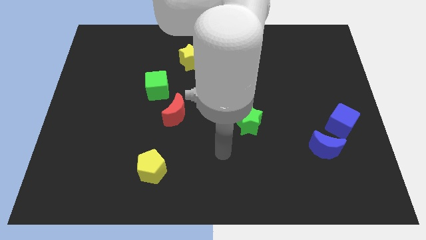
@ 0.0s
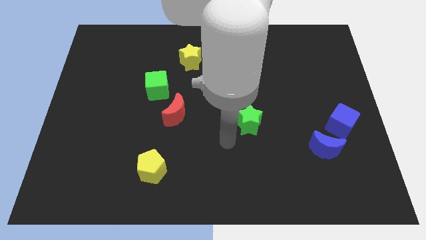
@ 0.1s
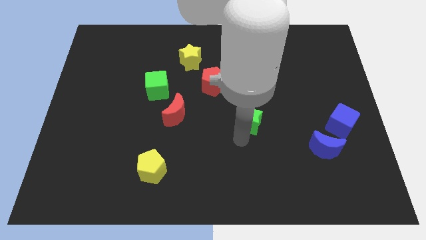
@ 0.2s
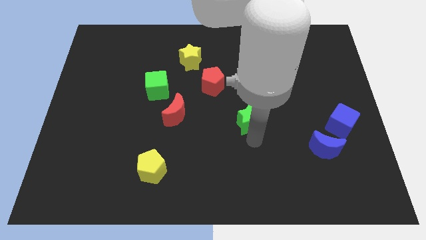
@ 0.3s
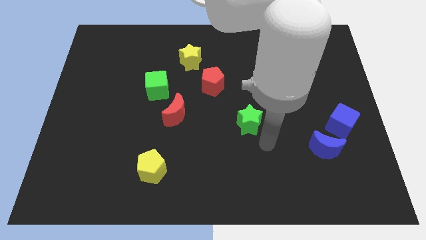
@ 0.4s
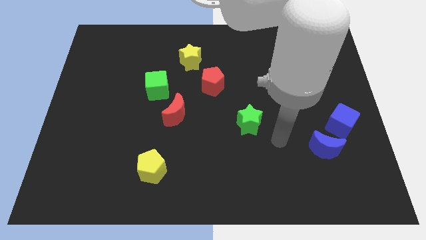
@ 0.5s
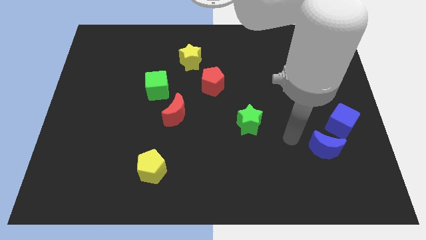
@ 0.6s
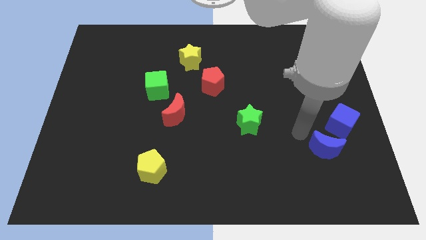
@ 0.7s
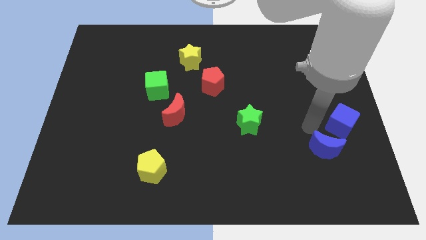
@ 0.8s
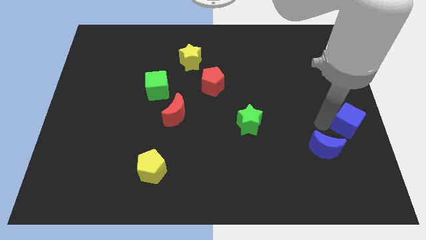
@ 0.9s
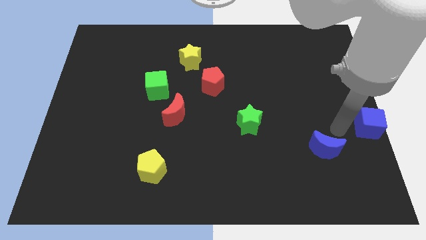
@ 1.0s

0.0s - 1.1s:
move the blue moon away from the blue cube

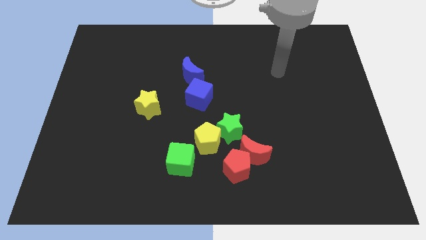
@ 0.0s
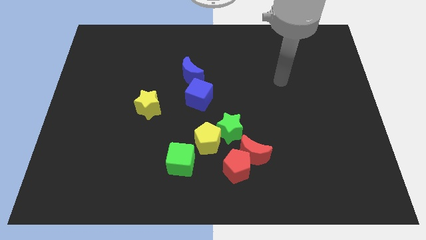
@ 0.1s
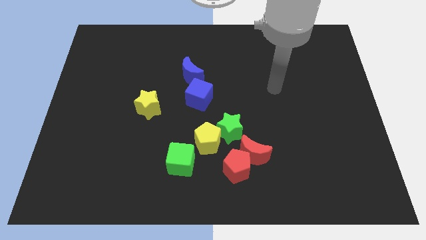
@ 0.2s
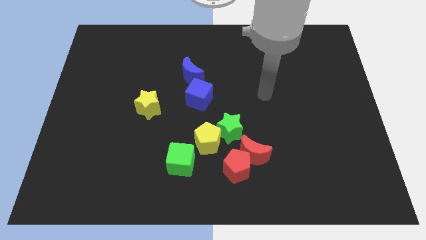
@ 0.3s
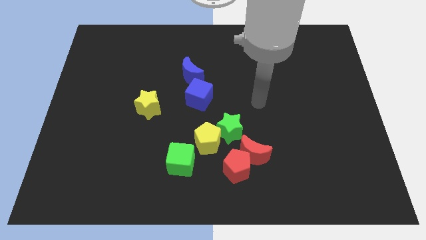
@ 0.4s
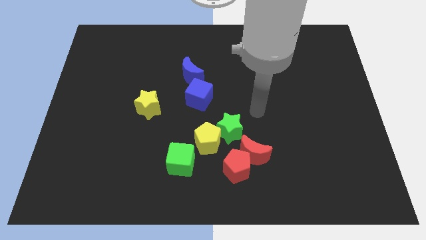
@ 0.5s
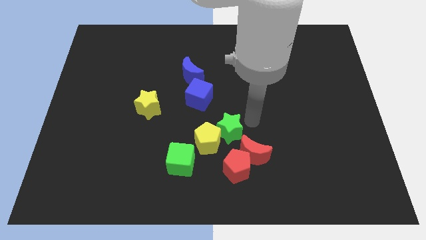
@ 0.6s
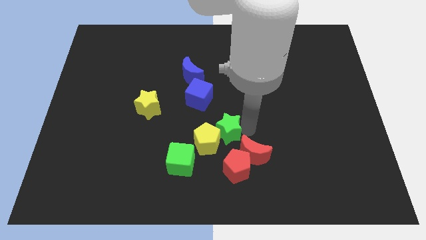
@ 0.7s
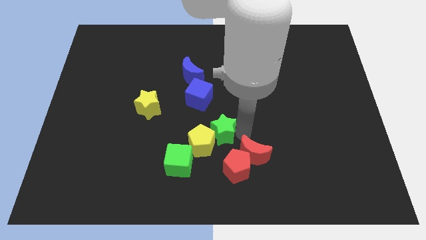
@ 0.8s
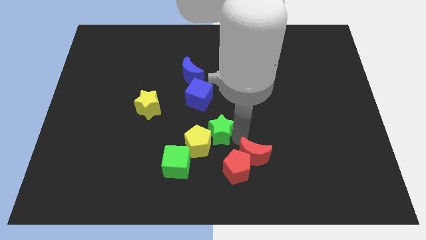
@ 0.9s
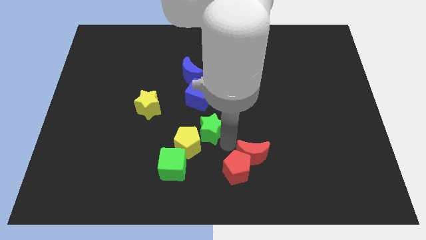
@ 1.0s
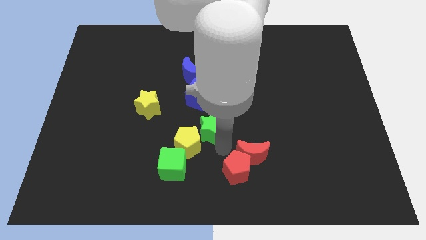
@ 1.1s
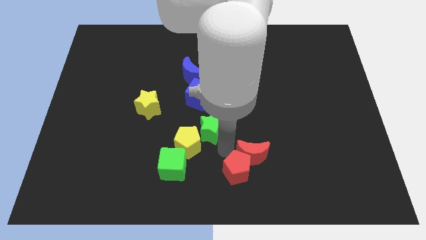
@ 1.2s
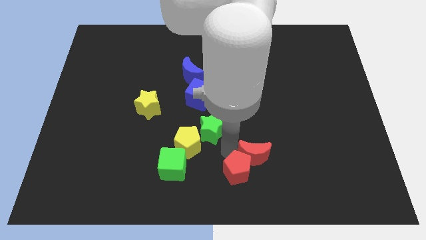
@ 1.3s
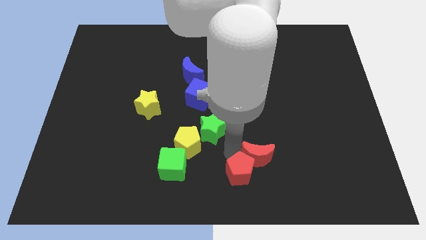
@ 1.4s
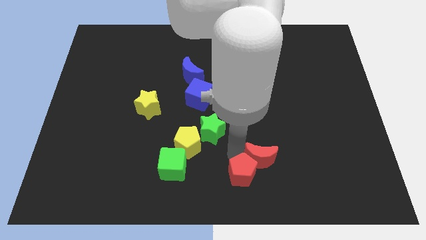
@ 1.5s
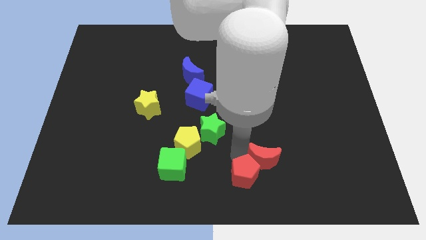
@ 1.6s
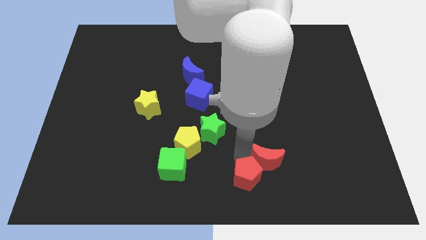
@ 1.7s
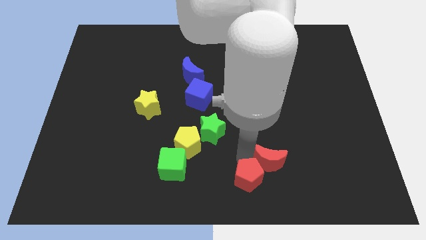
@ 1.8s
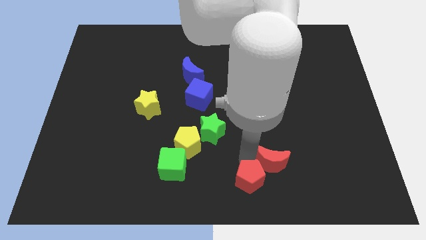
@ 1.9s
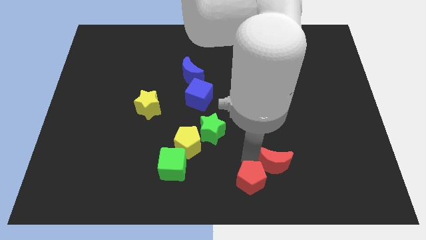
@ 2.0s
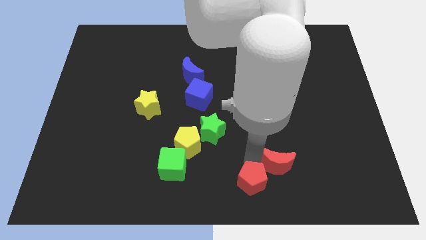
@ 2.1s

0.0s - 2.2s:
pull the red moon apart from the red pentagon and green star

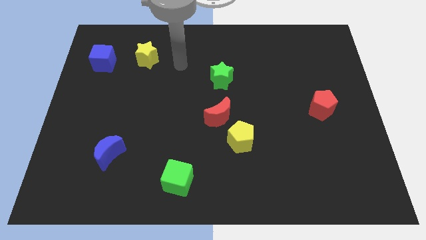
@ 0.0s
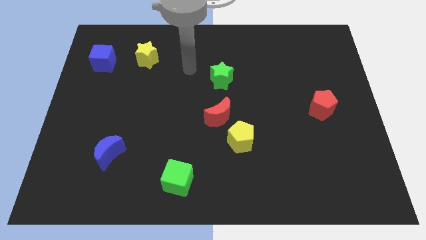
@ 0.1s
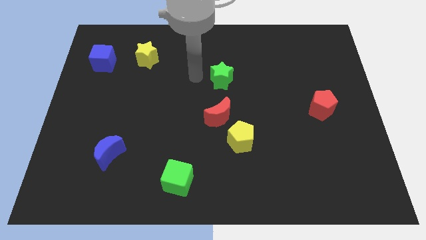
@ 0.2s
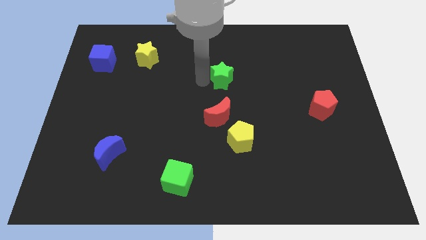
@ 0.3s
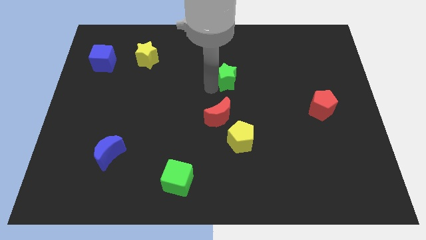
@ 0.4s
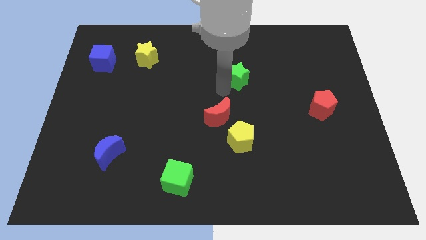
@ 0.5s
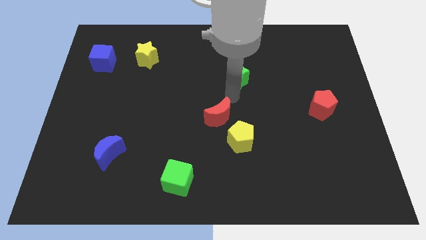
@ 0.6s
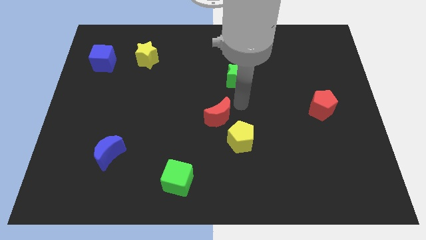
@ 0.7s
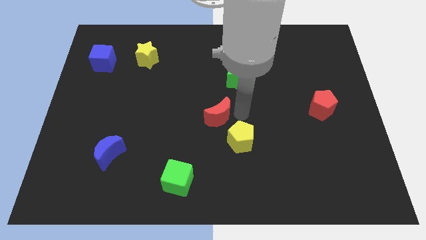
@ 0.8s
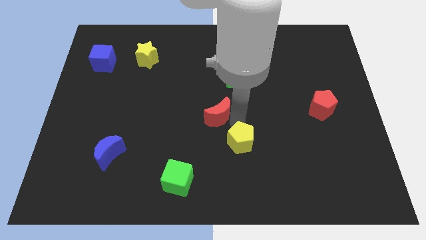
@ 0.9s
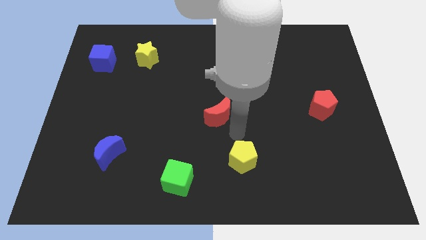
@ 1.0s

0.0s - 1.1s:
pull the red moon apart from the yellow pentagon

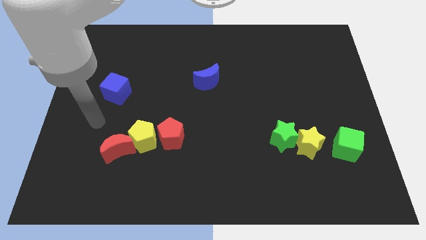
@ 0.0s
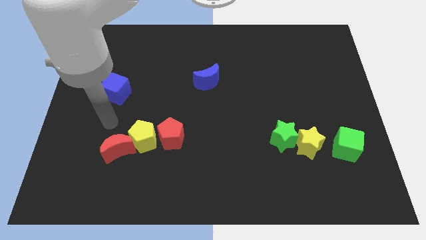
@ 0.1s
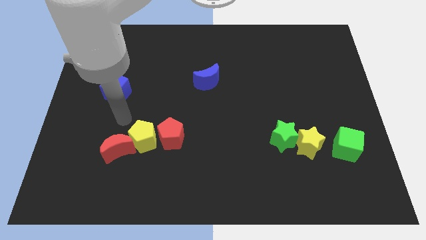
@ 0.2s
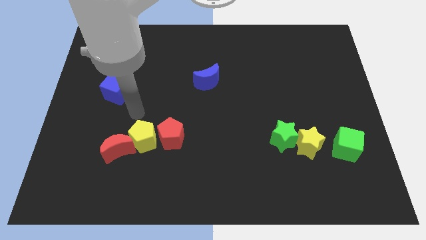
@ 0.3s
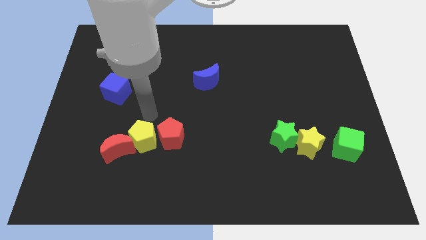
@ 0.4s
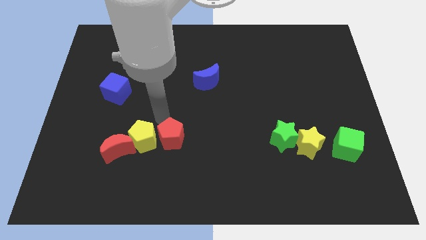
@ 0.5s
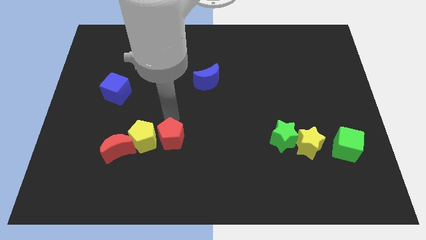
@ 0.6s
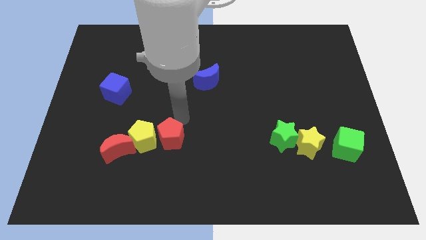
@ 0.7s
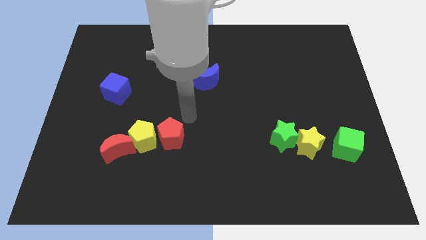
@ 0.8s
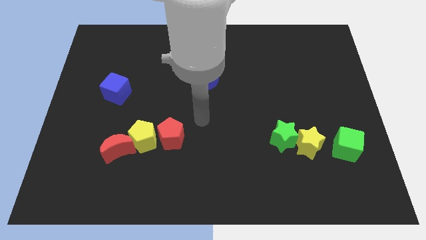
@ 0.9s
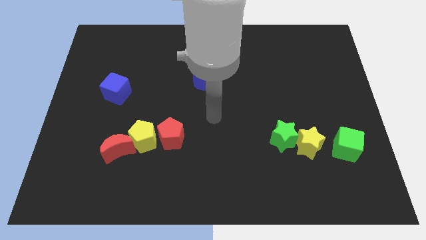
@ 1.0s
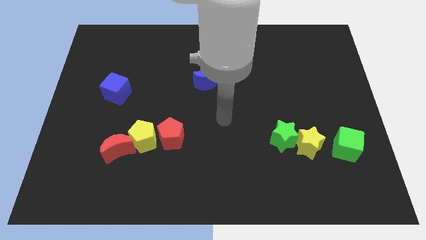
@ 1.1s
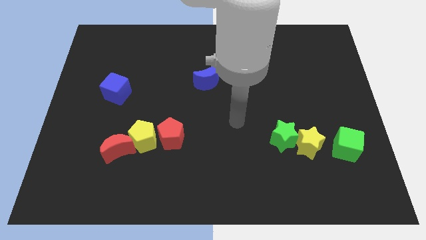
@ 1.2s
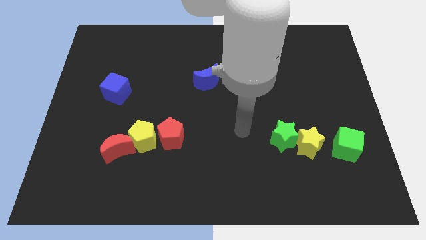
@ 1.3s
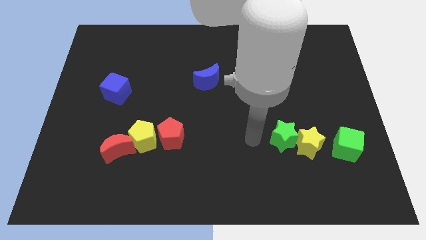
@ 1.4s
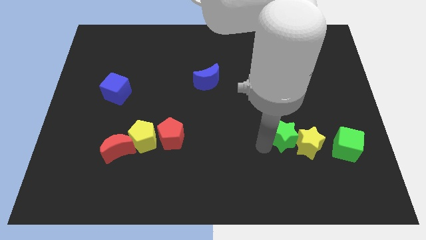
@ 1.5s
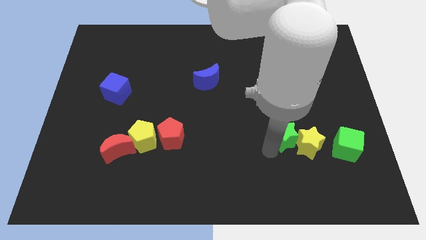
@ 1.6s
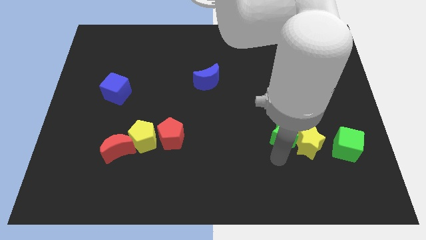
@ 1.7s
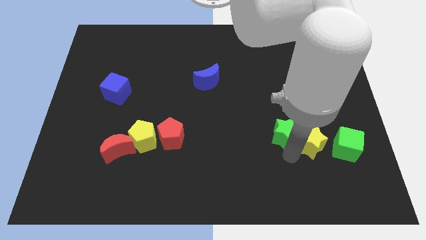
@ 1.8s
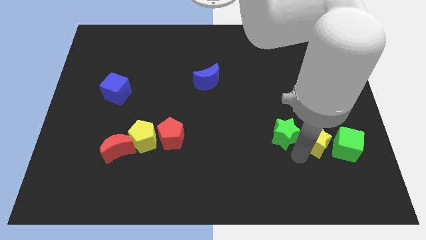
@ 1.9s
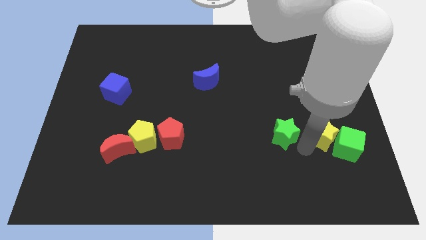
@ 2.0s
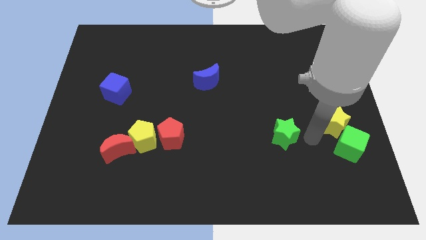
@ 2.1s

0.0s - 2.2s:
separate the green star from the yellow star

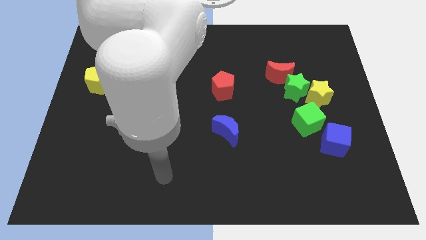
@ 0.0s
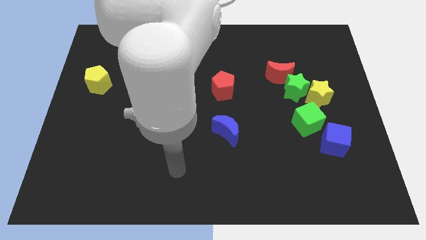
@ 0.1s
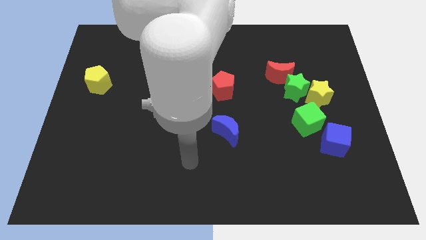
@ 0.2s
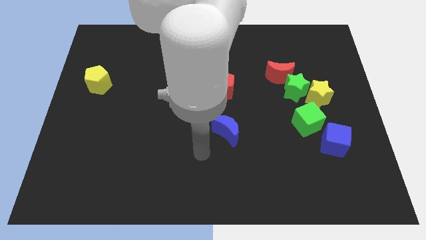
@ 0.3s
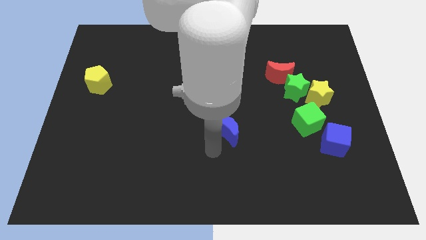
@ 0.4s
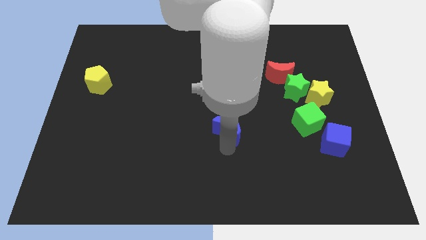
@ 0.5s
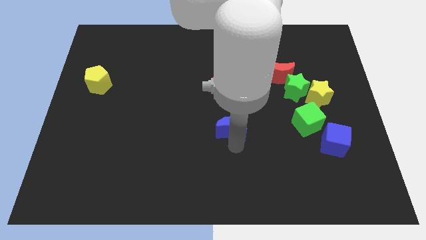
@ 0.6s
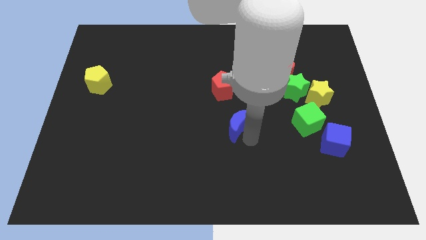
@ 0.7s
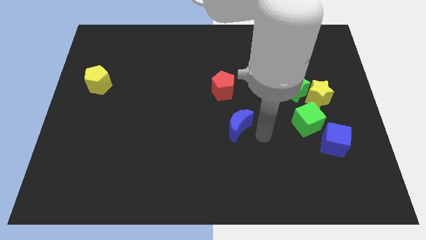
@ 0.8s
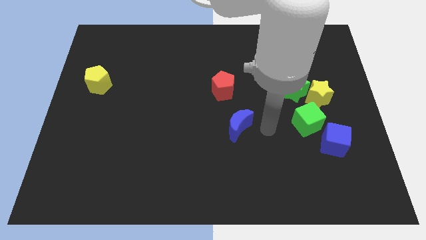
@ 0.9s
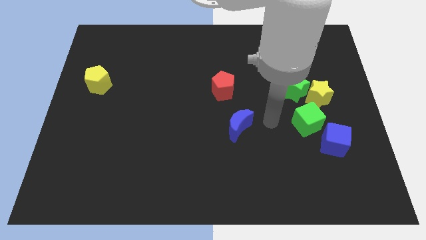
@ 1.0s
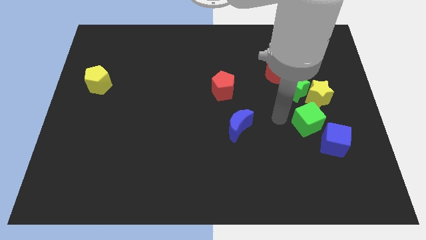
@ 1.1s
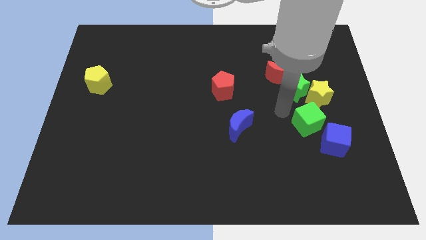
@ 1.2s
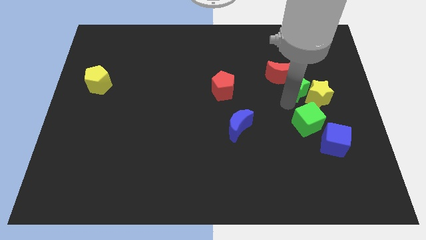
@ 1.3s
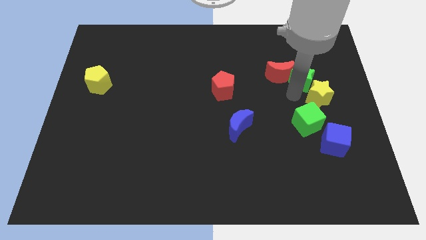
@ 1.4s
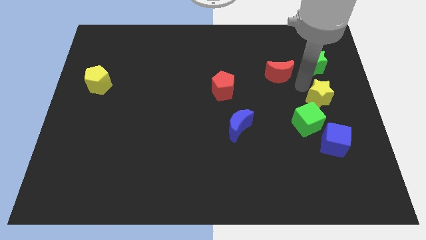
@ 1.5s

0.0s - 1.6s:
move the red moon away from the green star

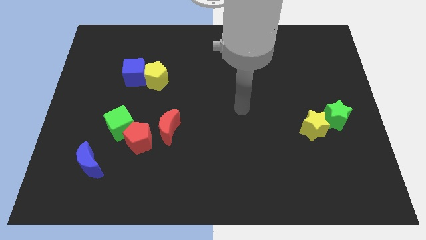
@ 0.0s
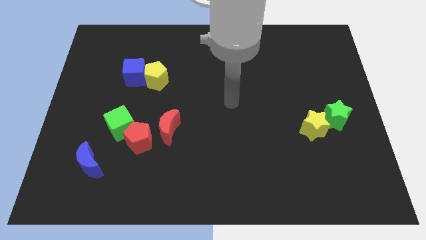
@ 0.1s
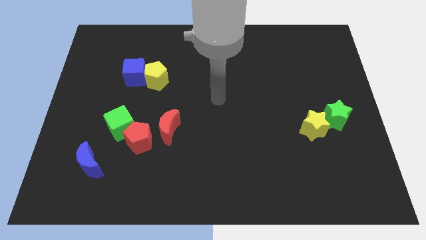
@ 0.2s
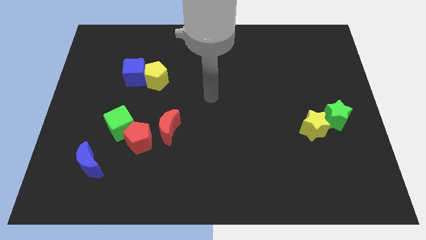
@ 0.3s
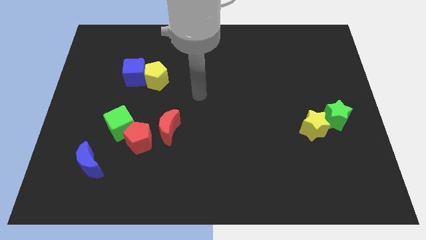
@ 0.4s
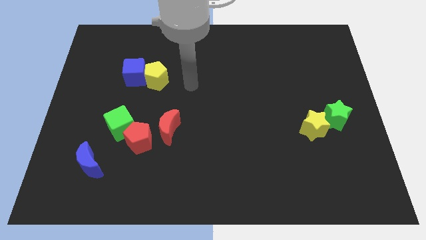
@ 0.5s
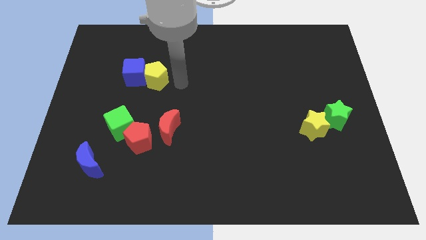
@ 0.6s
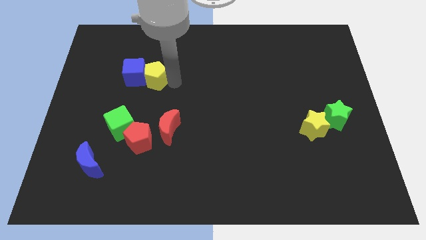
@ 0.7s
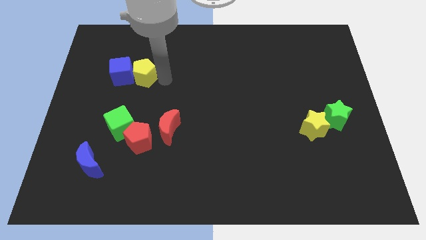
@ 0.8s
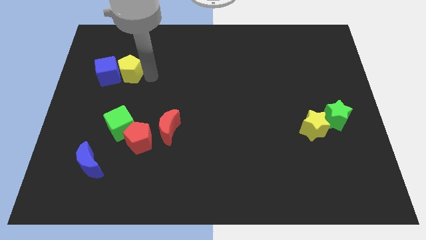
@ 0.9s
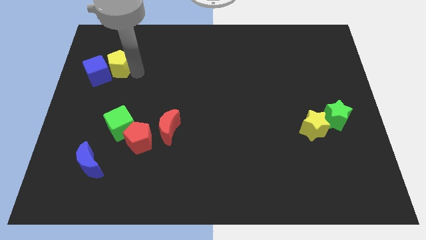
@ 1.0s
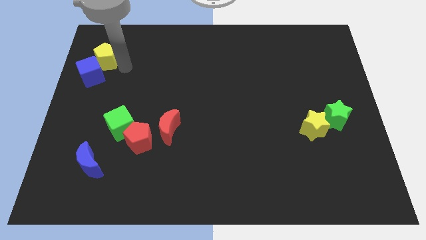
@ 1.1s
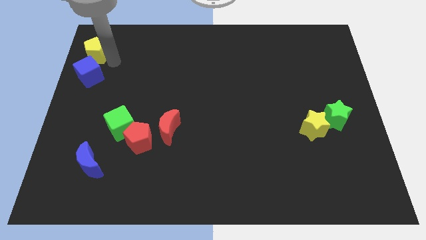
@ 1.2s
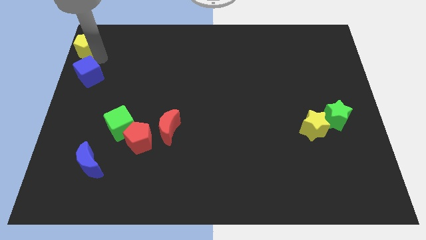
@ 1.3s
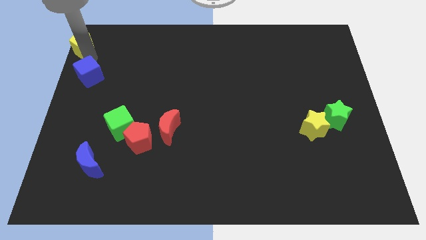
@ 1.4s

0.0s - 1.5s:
move the blue cube away from the yellow pentagon
